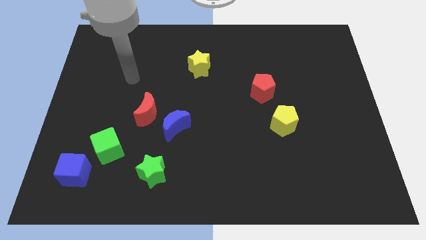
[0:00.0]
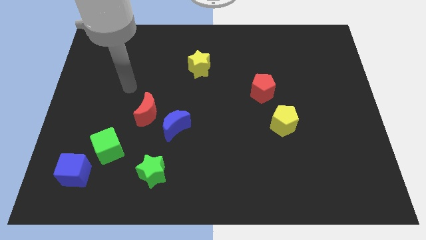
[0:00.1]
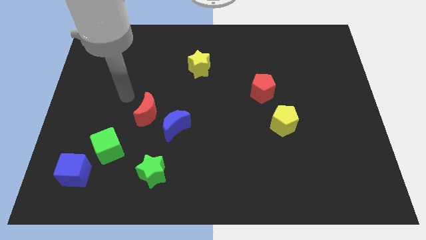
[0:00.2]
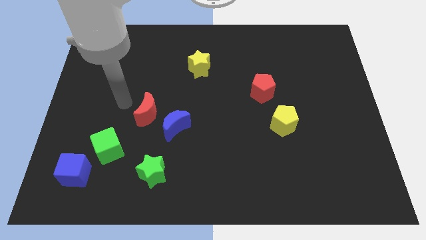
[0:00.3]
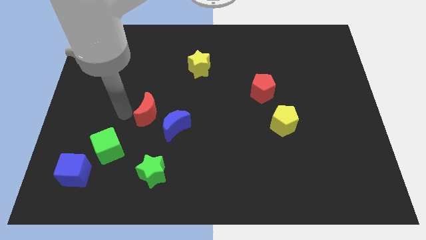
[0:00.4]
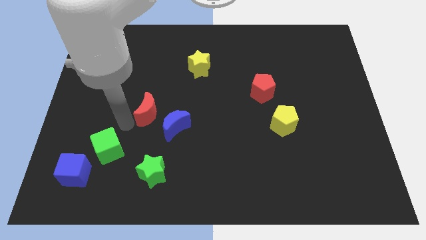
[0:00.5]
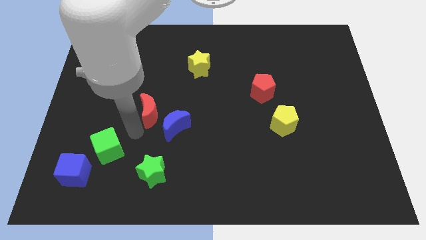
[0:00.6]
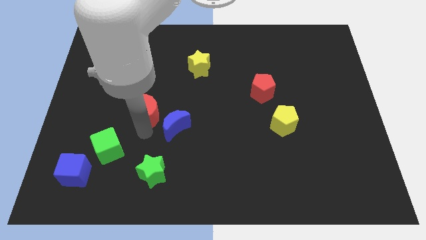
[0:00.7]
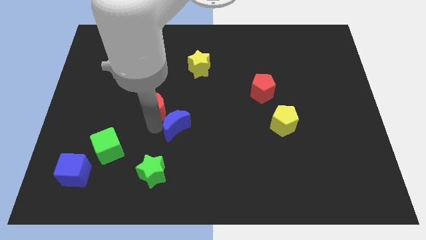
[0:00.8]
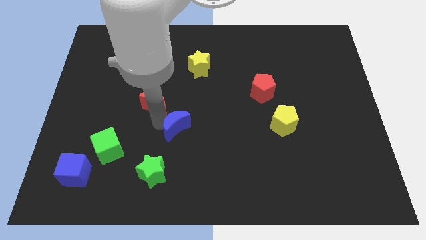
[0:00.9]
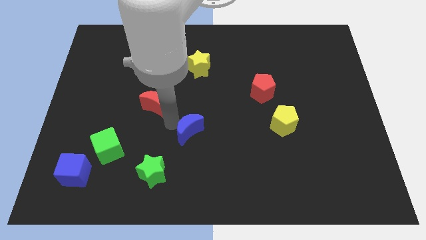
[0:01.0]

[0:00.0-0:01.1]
separate the red moon from the blue moon

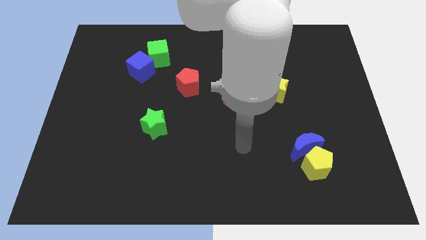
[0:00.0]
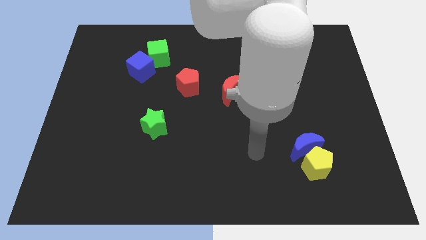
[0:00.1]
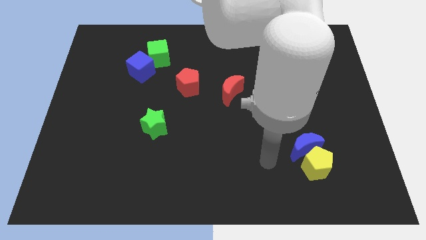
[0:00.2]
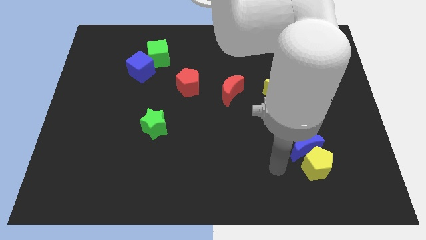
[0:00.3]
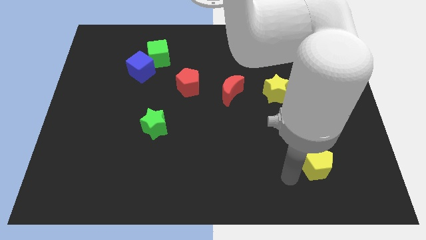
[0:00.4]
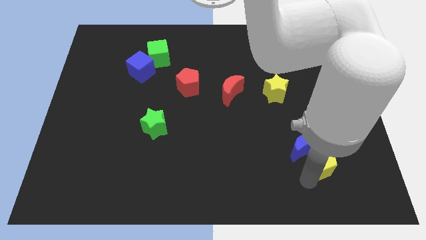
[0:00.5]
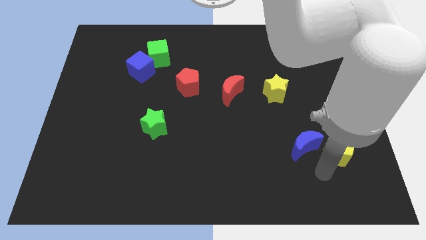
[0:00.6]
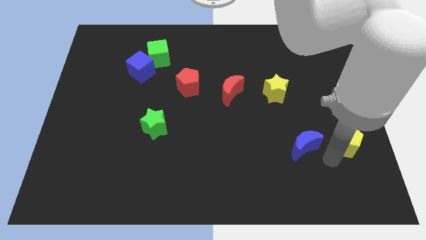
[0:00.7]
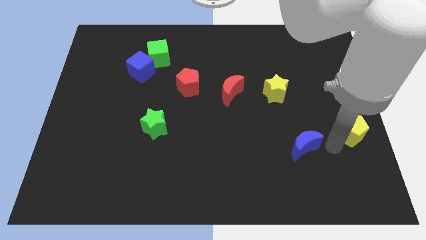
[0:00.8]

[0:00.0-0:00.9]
move the blue moon away from the yellow pentagon

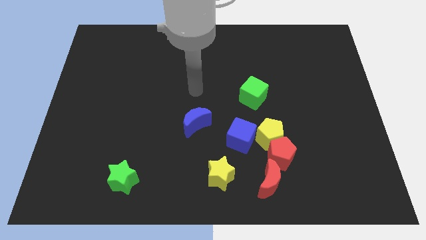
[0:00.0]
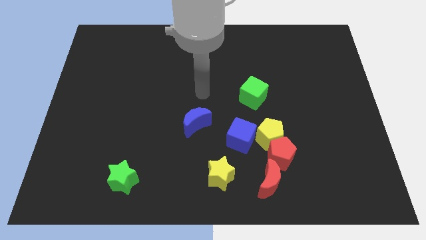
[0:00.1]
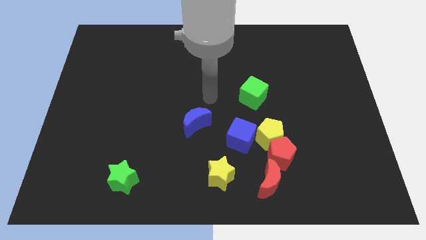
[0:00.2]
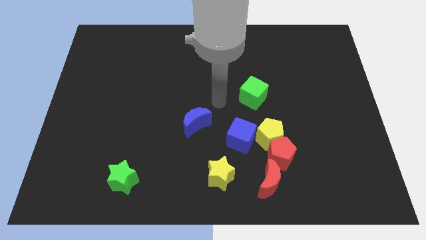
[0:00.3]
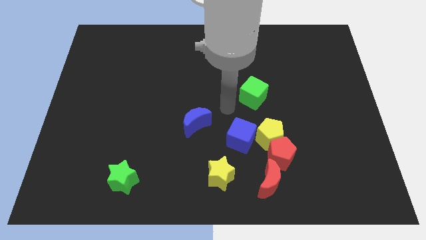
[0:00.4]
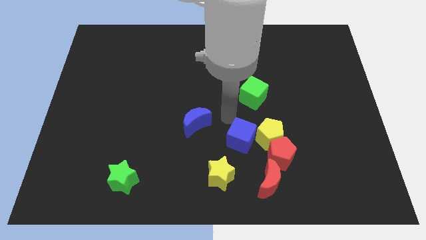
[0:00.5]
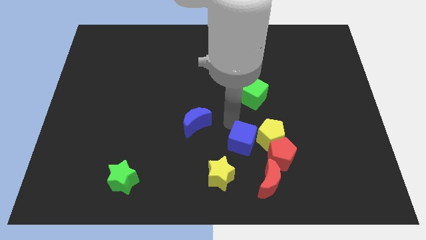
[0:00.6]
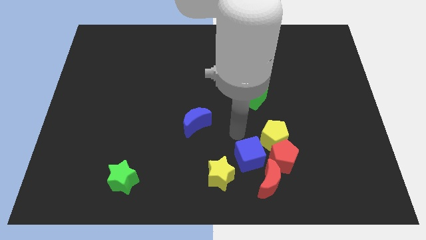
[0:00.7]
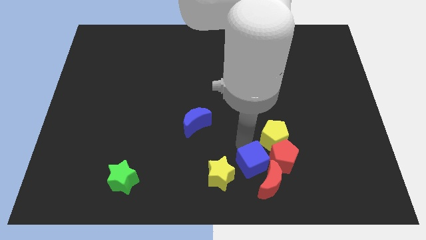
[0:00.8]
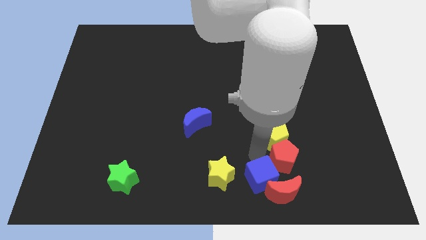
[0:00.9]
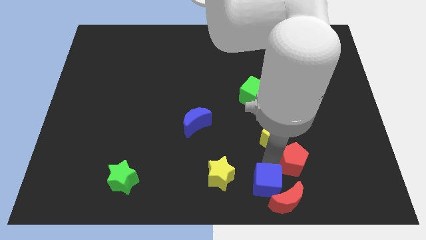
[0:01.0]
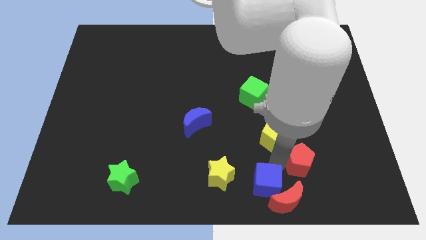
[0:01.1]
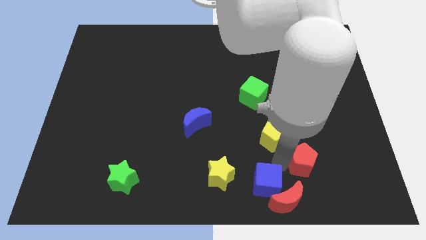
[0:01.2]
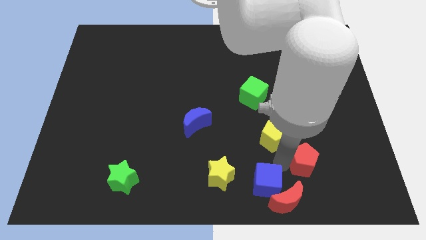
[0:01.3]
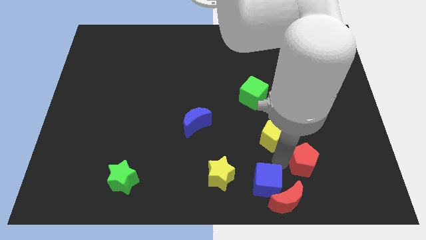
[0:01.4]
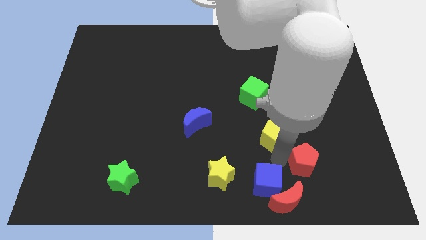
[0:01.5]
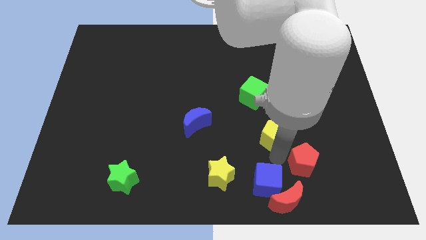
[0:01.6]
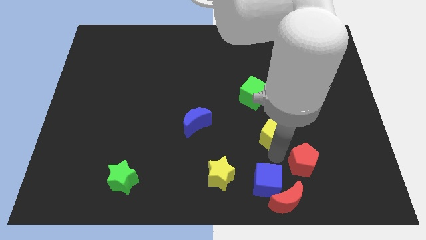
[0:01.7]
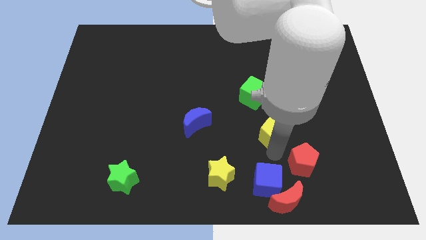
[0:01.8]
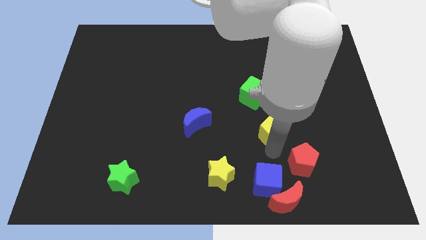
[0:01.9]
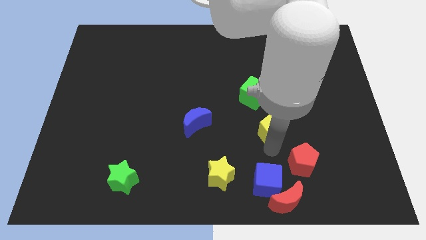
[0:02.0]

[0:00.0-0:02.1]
move the yellow pentagon away from the red pentagon and blue cube

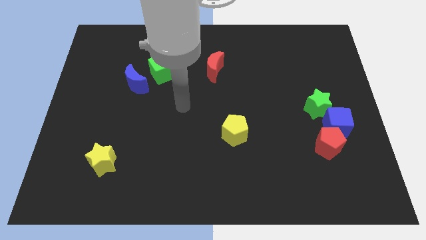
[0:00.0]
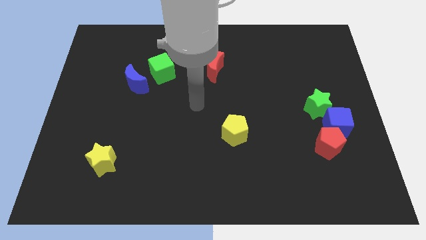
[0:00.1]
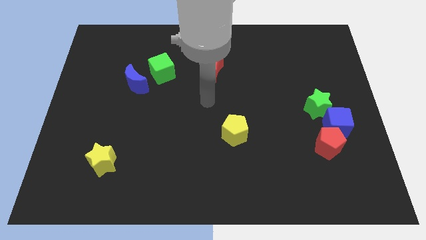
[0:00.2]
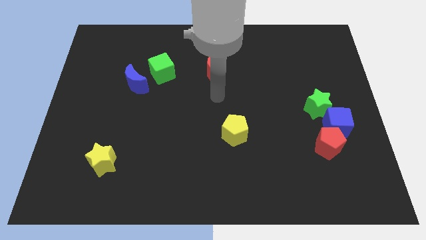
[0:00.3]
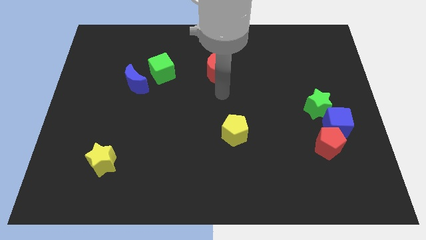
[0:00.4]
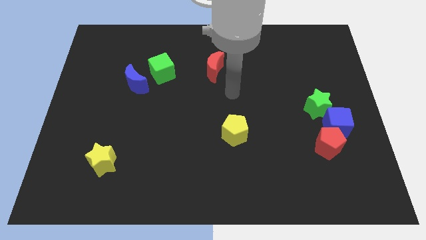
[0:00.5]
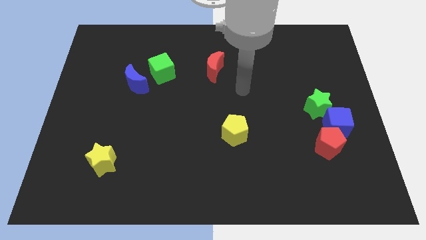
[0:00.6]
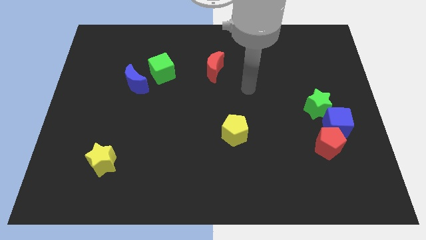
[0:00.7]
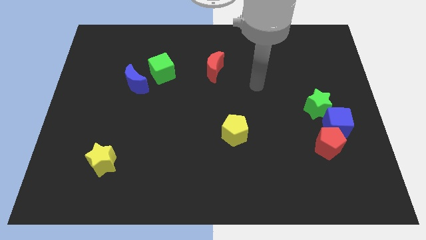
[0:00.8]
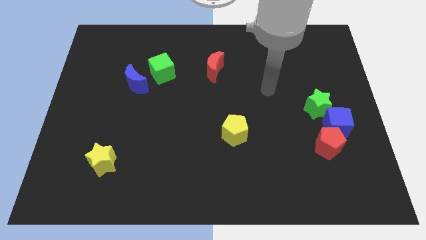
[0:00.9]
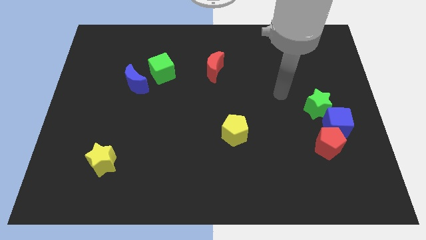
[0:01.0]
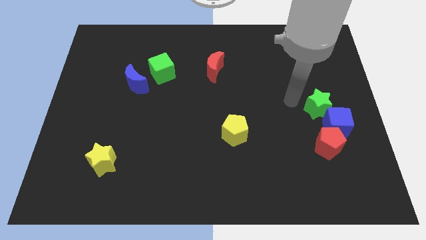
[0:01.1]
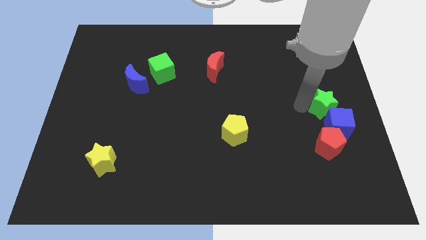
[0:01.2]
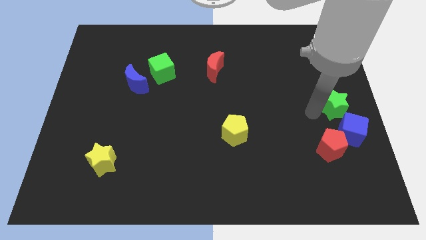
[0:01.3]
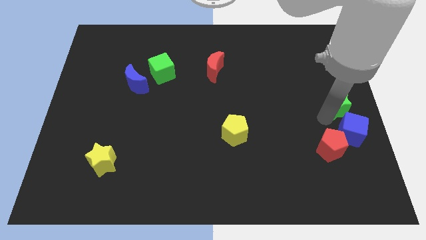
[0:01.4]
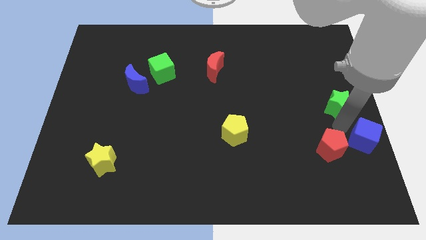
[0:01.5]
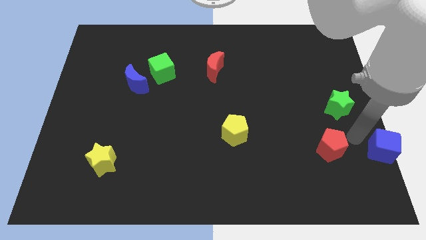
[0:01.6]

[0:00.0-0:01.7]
move the red pentagon away from the blue cube

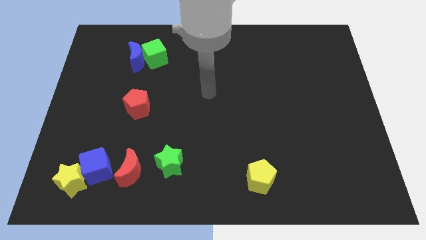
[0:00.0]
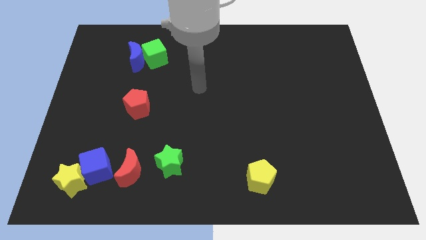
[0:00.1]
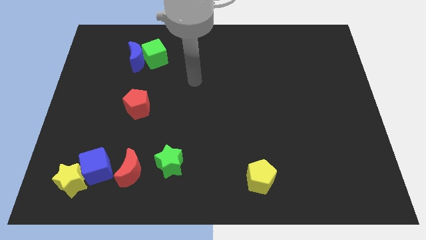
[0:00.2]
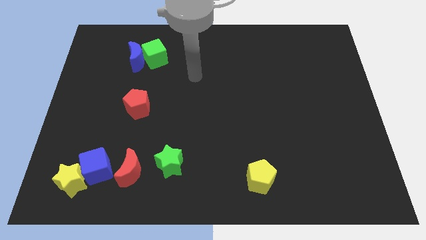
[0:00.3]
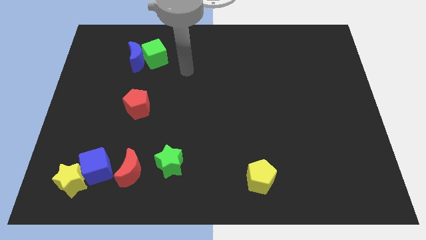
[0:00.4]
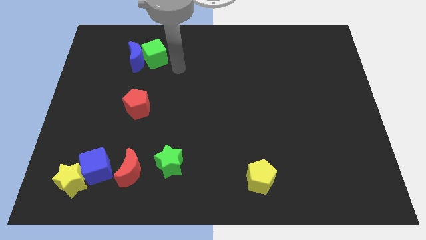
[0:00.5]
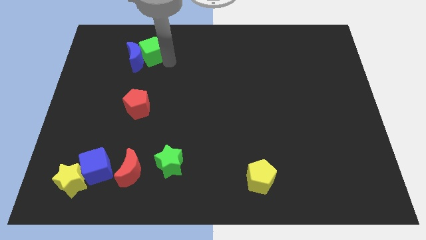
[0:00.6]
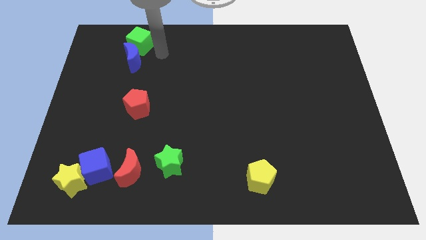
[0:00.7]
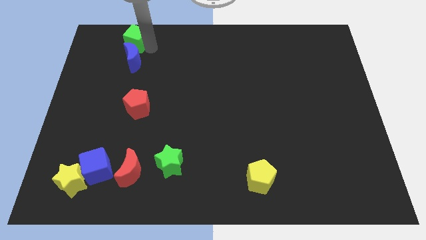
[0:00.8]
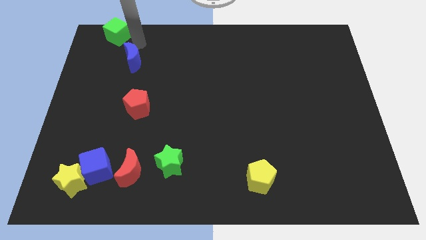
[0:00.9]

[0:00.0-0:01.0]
move the blue moon away from the green cube

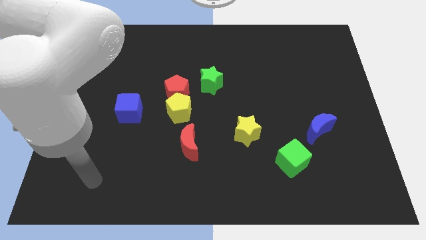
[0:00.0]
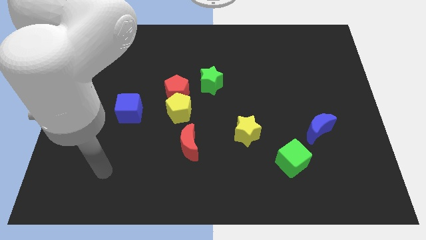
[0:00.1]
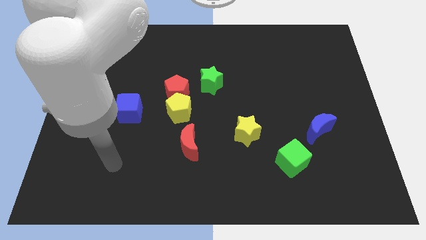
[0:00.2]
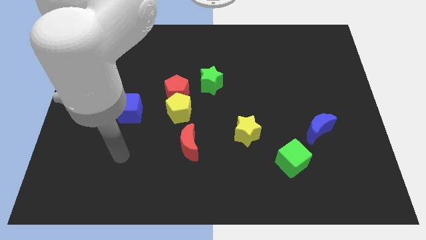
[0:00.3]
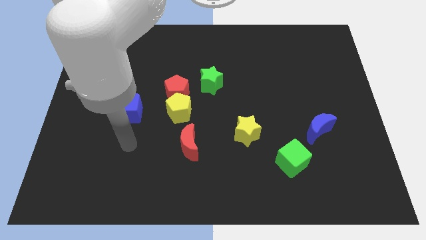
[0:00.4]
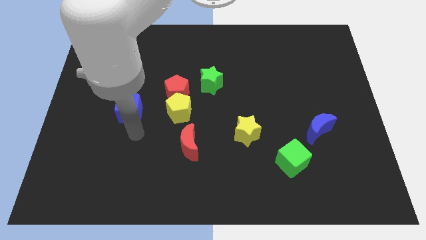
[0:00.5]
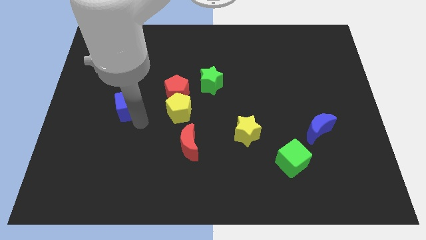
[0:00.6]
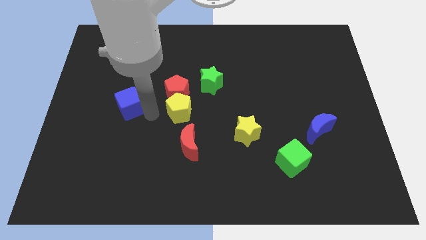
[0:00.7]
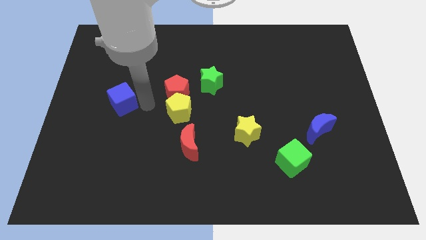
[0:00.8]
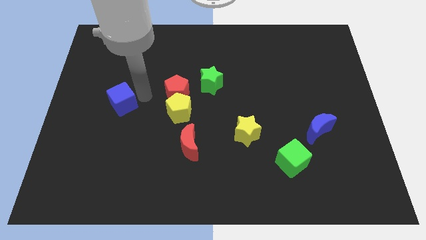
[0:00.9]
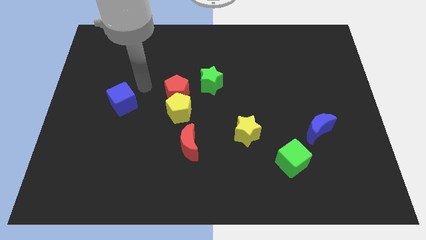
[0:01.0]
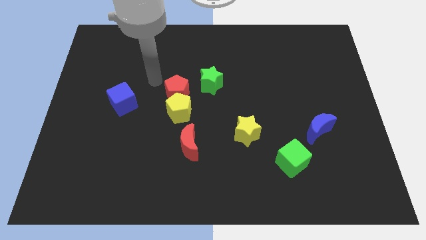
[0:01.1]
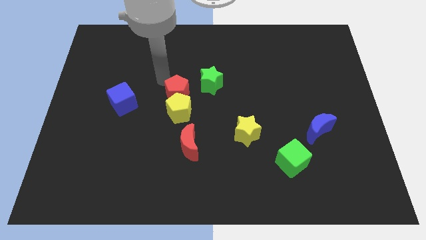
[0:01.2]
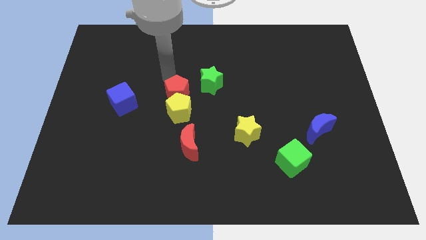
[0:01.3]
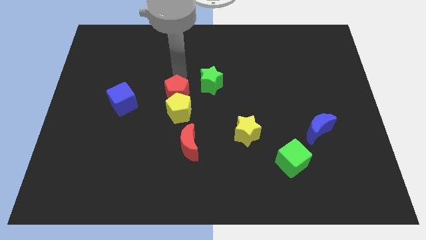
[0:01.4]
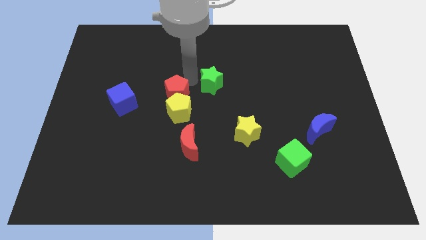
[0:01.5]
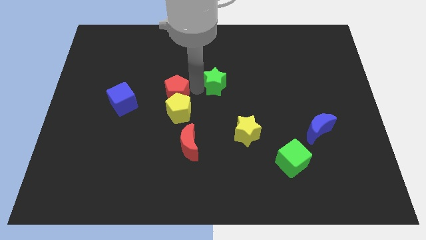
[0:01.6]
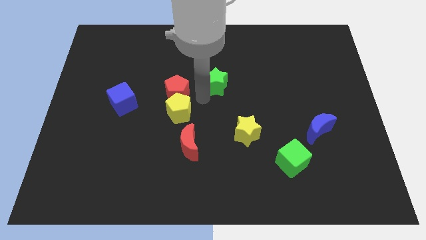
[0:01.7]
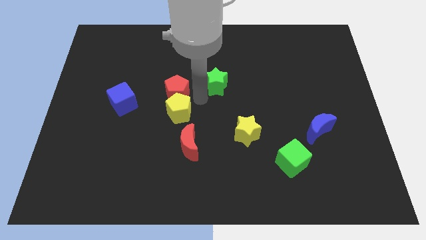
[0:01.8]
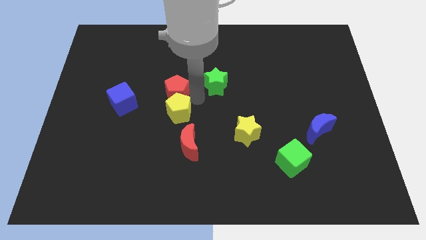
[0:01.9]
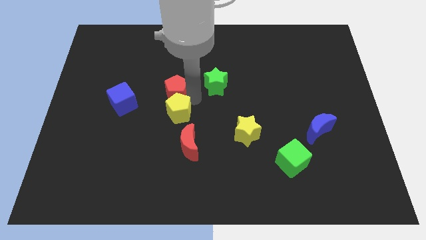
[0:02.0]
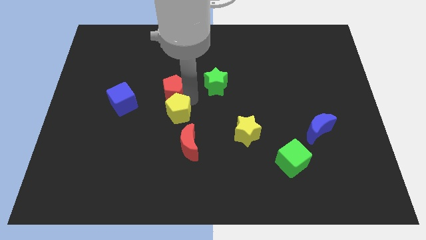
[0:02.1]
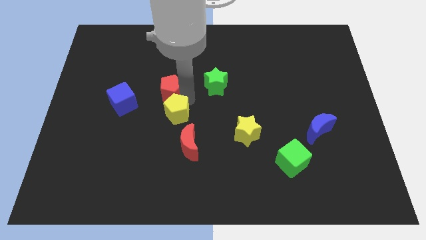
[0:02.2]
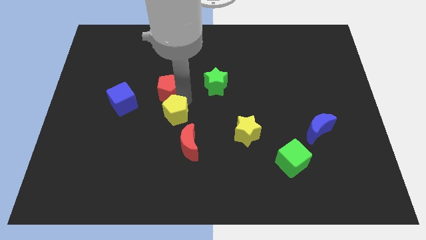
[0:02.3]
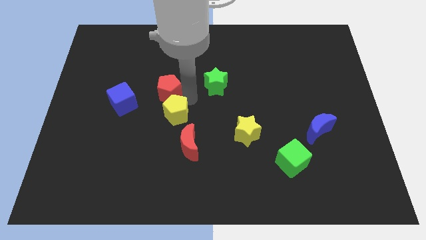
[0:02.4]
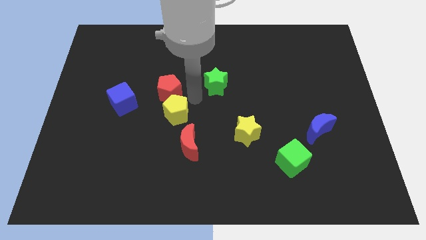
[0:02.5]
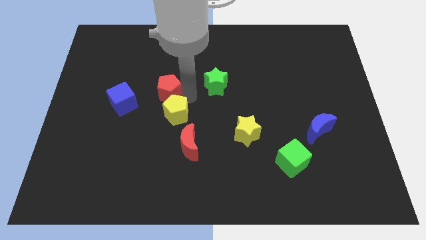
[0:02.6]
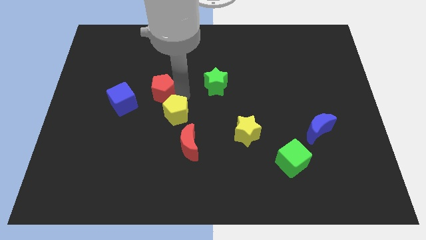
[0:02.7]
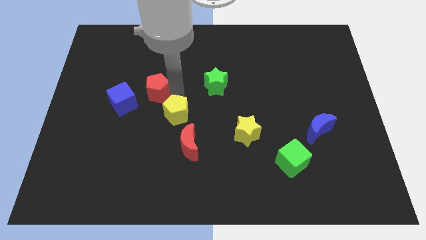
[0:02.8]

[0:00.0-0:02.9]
pull the red pentagon apart from the yellow pentagon and green star
